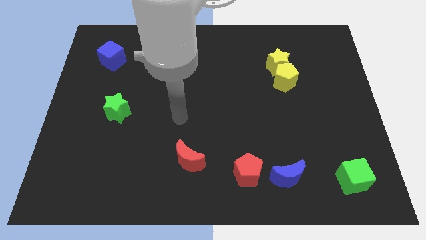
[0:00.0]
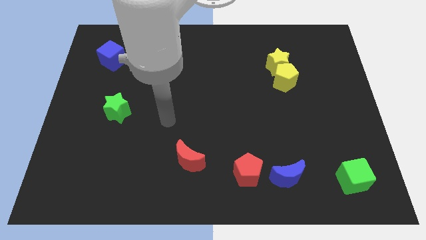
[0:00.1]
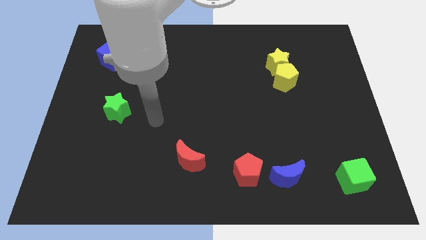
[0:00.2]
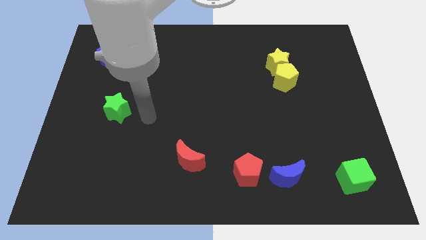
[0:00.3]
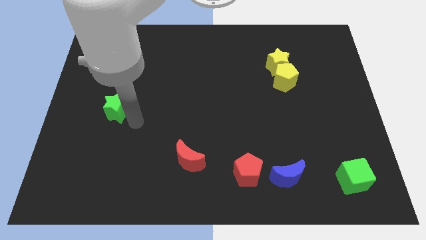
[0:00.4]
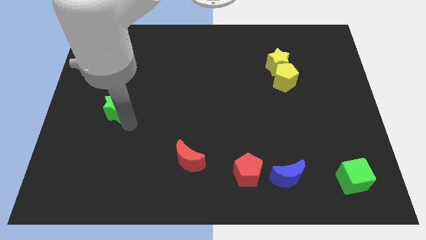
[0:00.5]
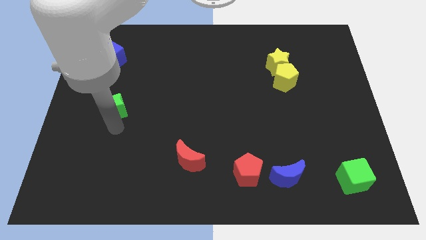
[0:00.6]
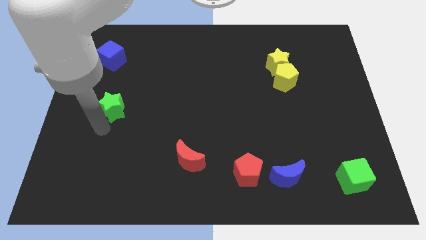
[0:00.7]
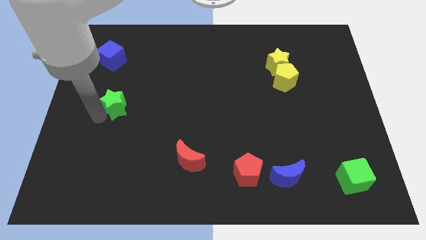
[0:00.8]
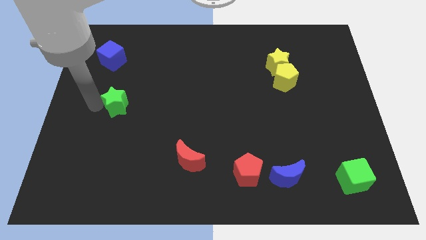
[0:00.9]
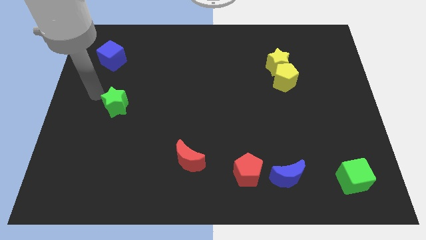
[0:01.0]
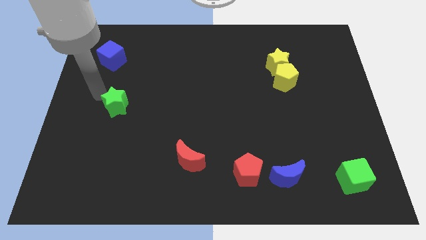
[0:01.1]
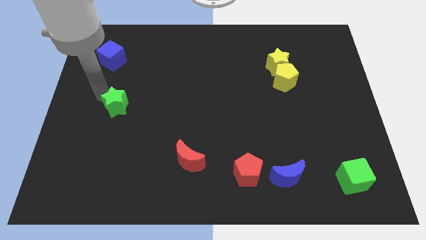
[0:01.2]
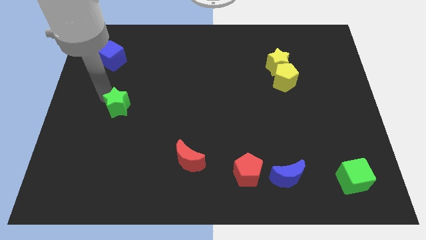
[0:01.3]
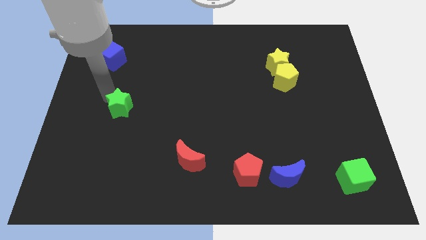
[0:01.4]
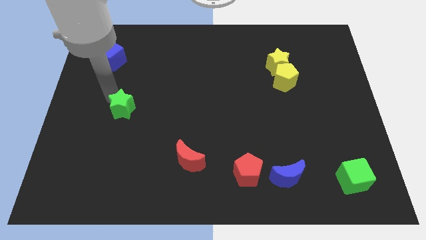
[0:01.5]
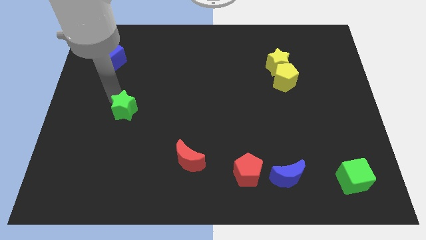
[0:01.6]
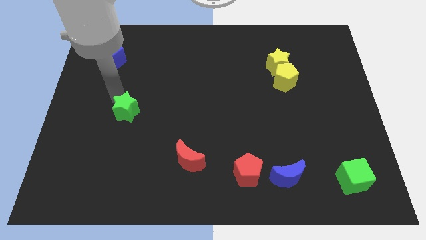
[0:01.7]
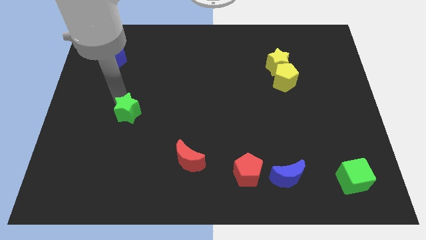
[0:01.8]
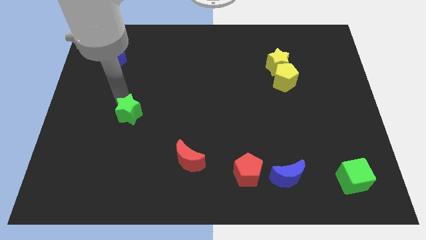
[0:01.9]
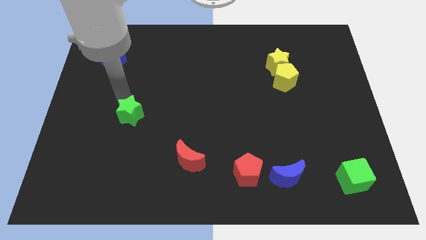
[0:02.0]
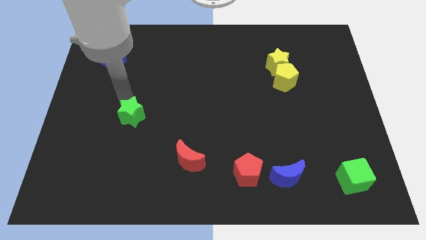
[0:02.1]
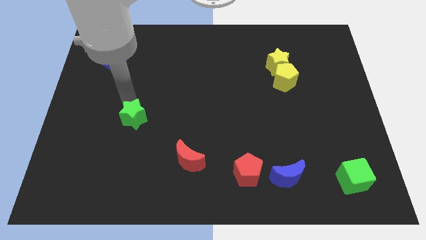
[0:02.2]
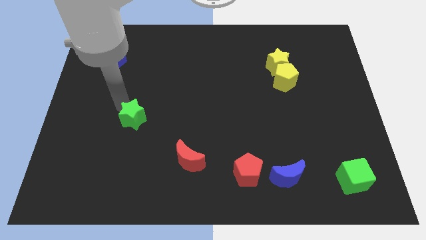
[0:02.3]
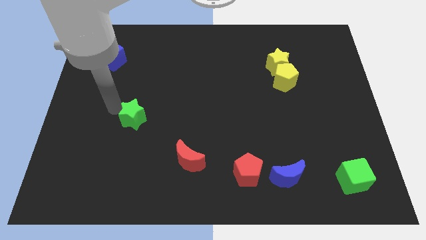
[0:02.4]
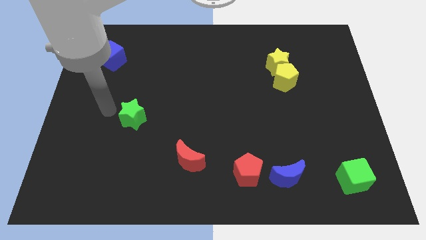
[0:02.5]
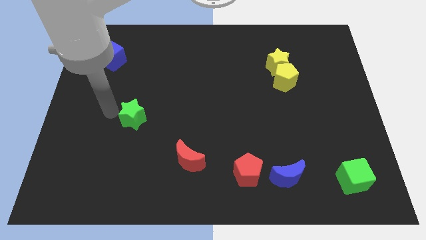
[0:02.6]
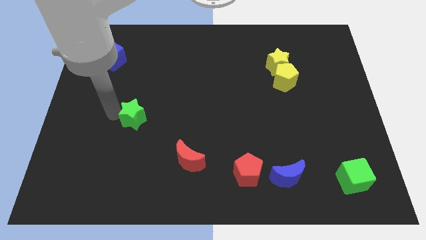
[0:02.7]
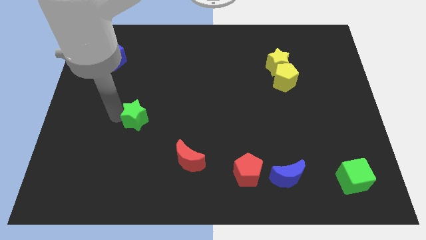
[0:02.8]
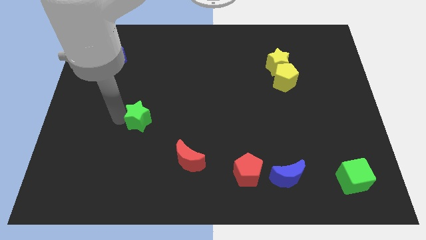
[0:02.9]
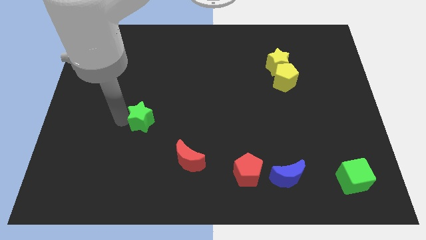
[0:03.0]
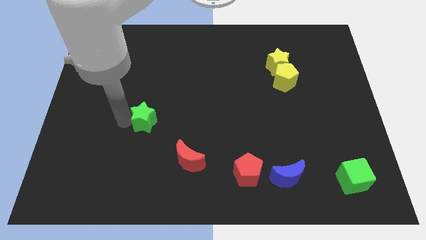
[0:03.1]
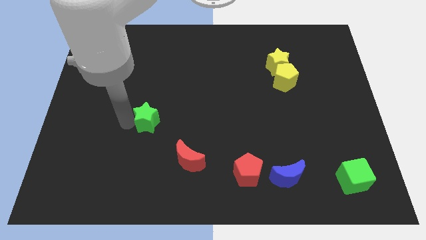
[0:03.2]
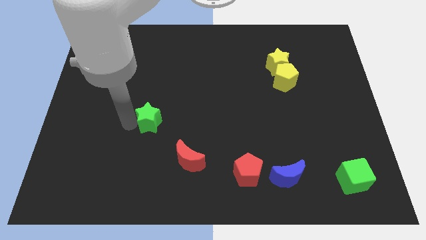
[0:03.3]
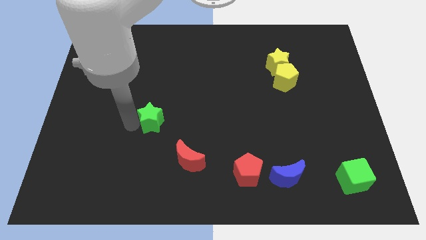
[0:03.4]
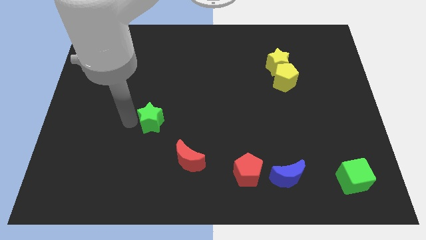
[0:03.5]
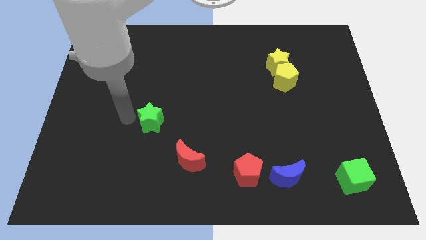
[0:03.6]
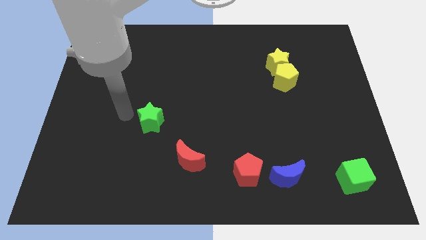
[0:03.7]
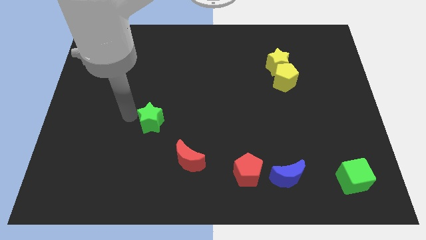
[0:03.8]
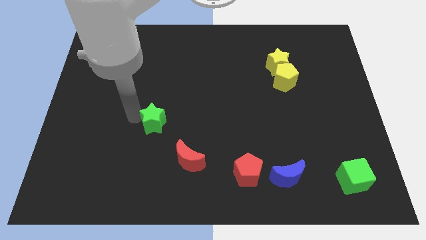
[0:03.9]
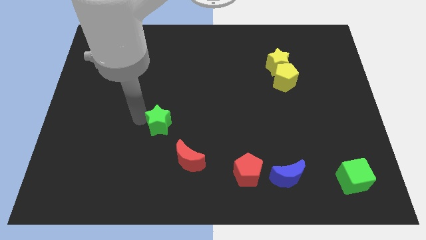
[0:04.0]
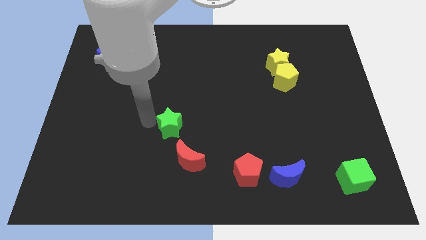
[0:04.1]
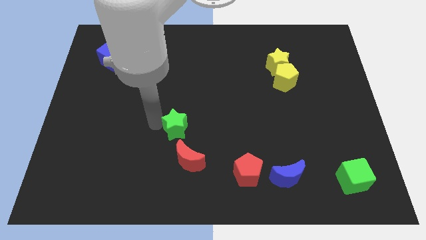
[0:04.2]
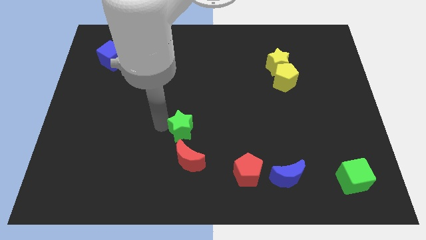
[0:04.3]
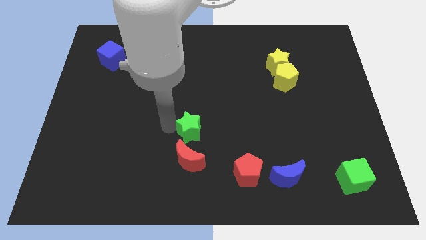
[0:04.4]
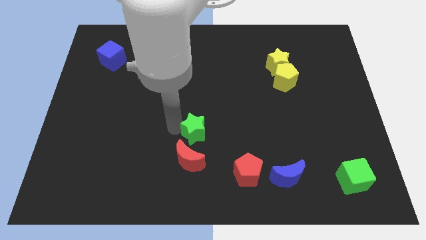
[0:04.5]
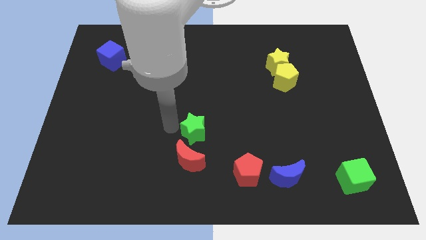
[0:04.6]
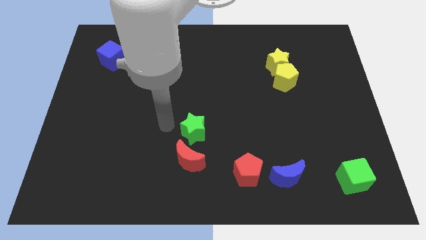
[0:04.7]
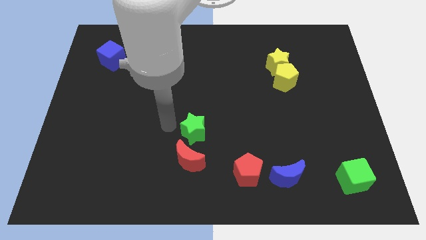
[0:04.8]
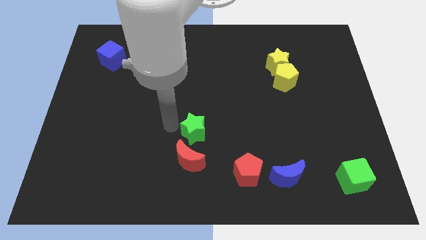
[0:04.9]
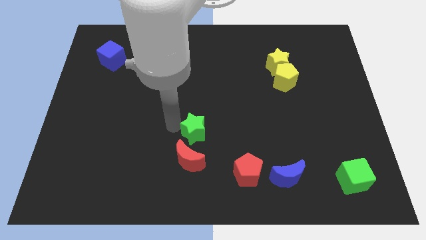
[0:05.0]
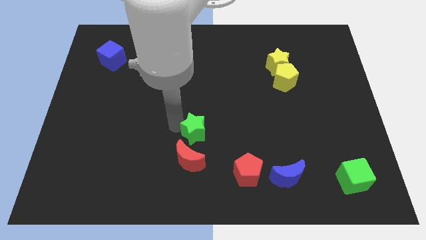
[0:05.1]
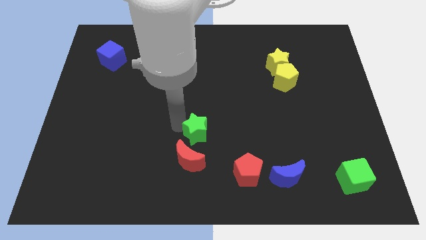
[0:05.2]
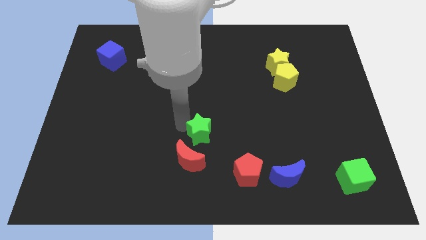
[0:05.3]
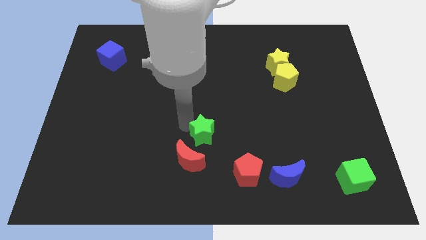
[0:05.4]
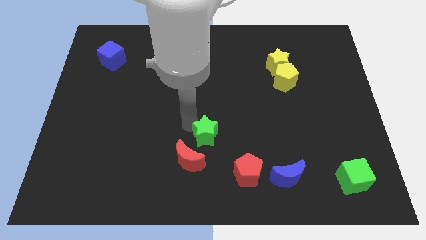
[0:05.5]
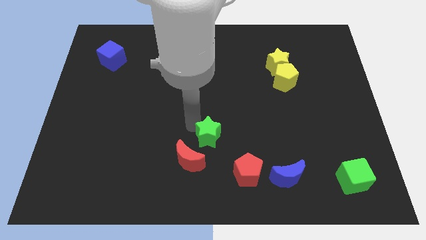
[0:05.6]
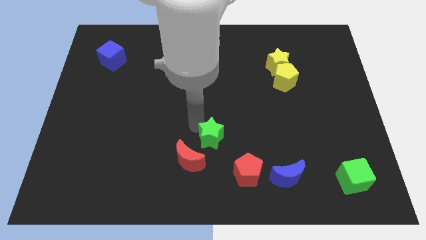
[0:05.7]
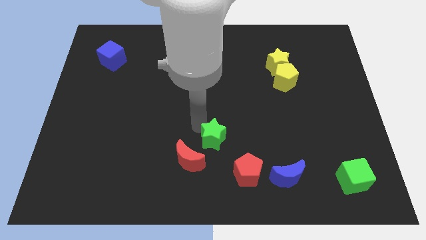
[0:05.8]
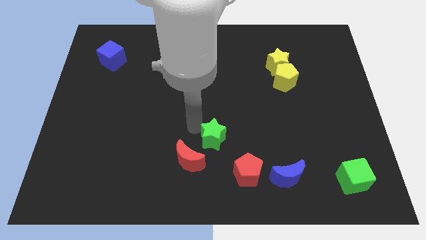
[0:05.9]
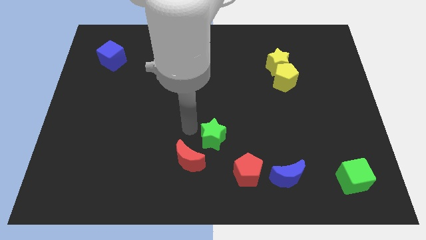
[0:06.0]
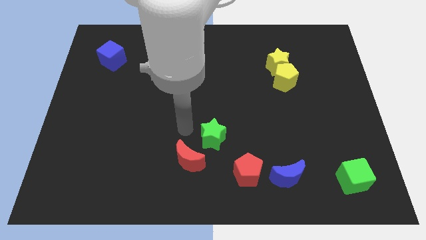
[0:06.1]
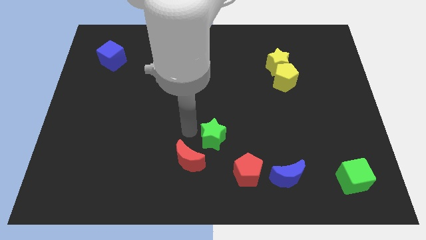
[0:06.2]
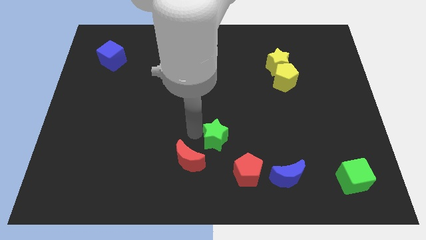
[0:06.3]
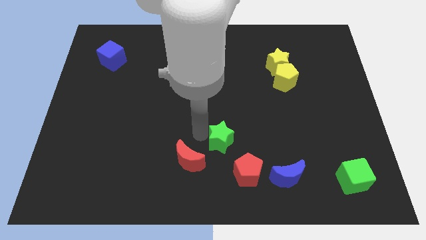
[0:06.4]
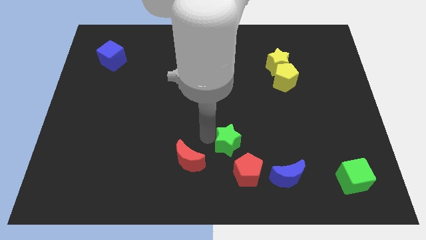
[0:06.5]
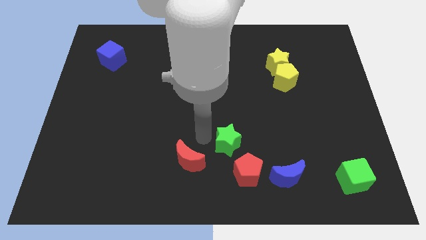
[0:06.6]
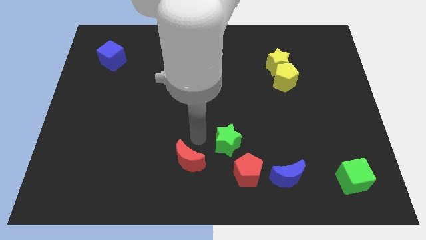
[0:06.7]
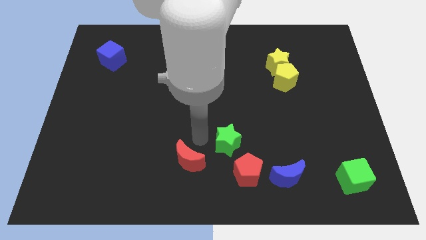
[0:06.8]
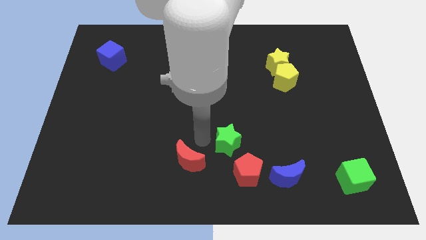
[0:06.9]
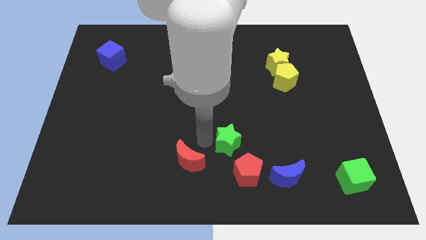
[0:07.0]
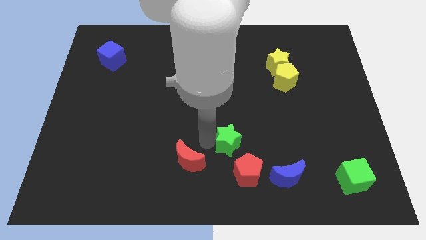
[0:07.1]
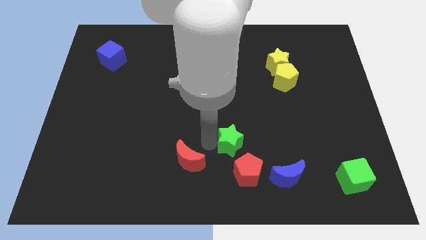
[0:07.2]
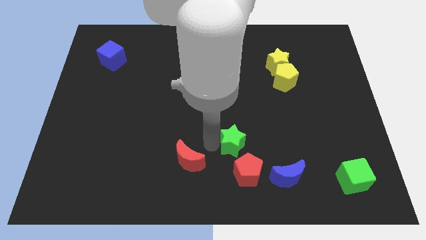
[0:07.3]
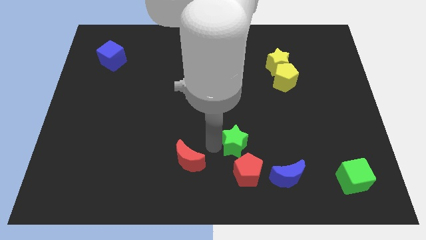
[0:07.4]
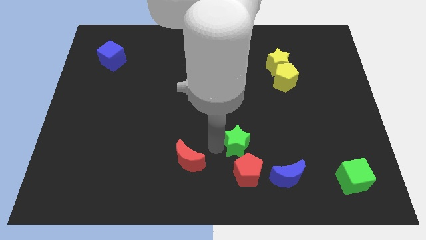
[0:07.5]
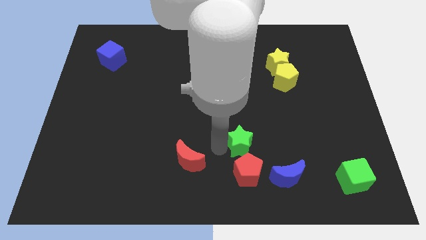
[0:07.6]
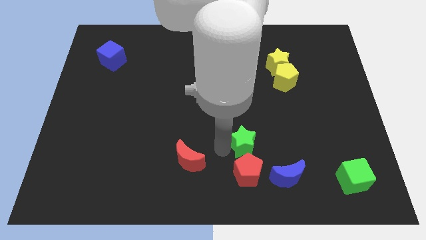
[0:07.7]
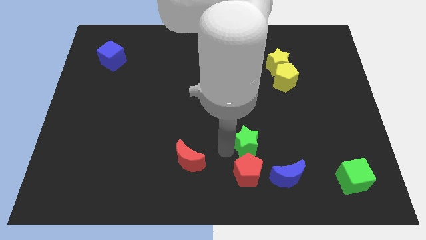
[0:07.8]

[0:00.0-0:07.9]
move the green star to the top right side of the red pentagon
